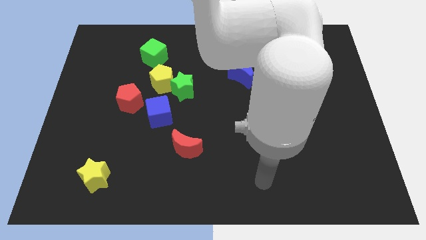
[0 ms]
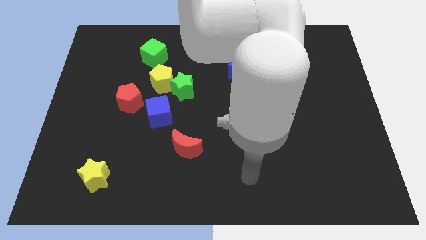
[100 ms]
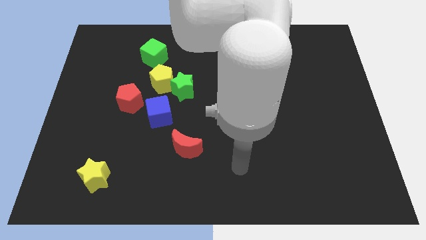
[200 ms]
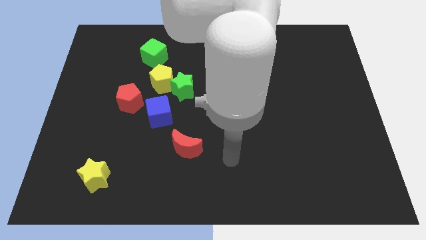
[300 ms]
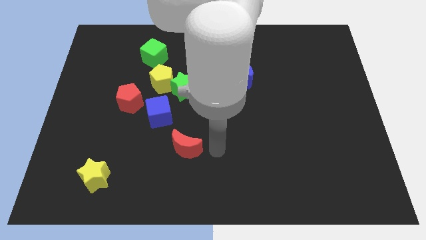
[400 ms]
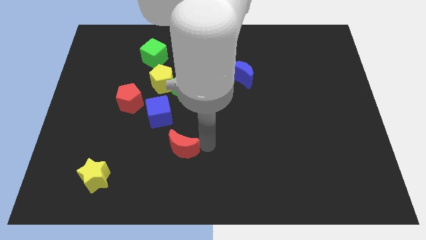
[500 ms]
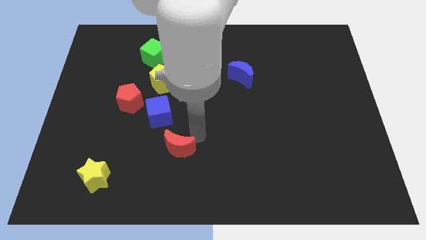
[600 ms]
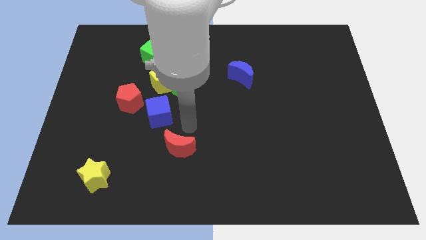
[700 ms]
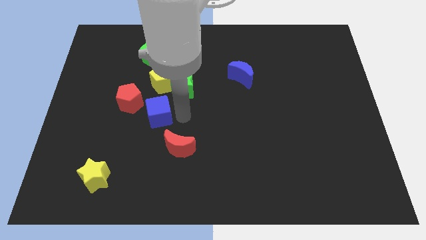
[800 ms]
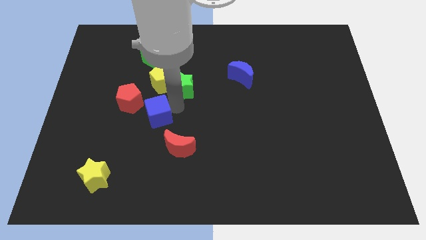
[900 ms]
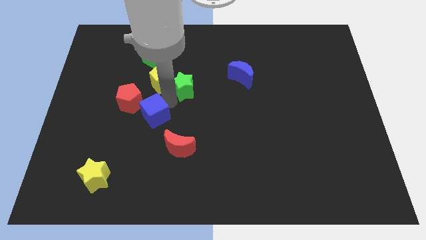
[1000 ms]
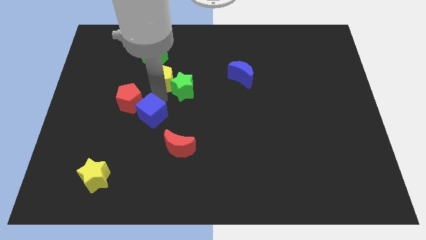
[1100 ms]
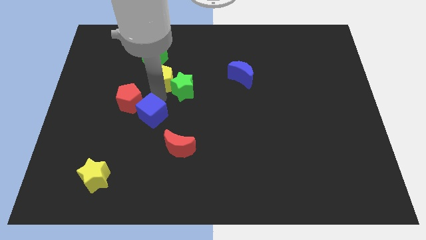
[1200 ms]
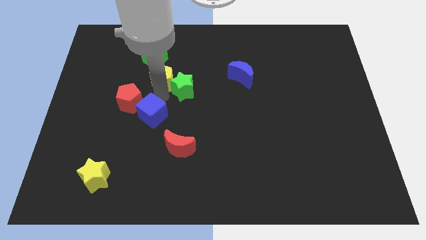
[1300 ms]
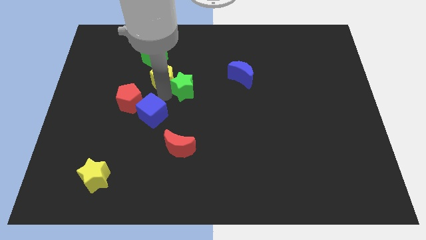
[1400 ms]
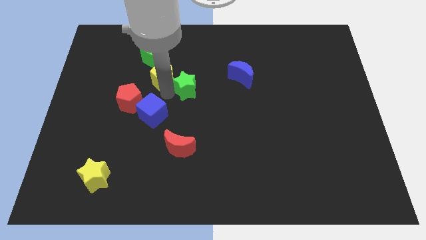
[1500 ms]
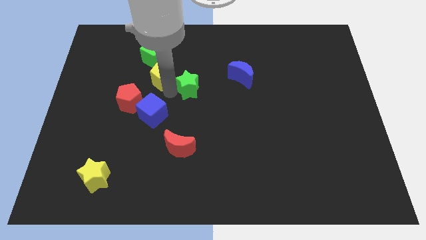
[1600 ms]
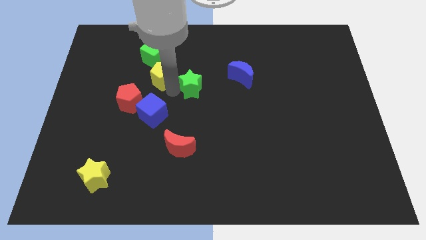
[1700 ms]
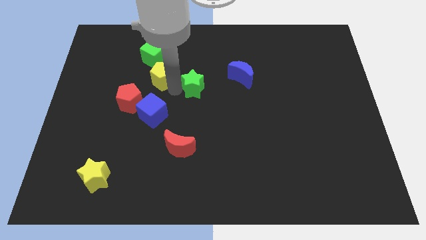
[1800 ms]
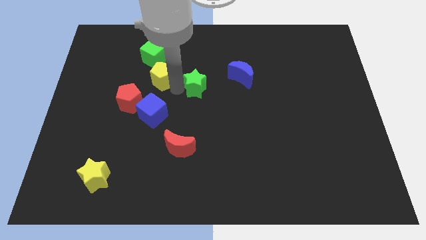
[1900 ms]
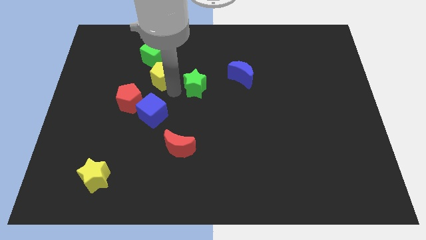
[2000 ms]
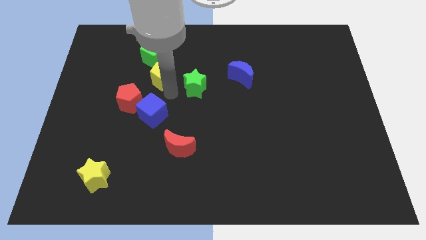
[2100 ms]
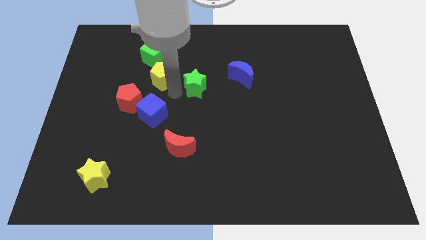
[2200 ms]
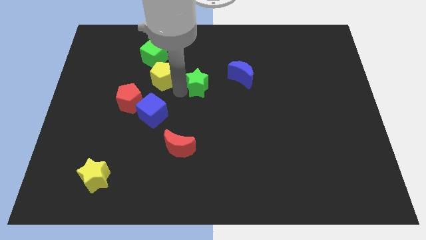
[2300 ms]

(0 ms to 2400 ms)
move the green star away from the yellow pentagon and blue cube

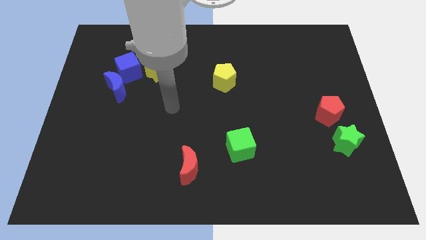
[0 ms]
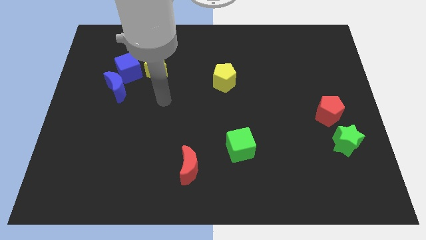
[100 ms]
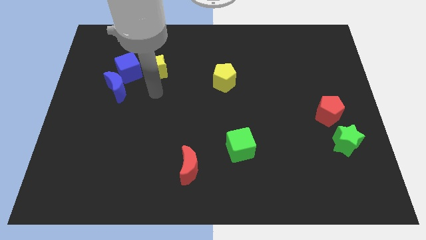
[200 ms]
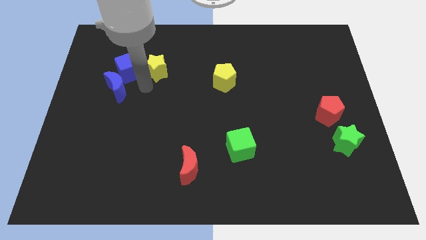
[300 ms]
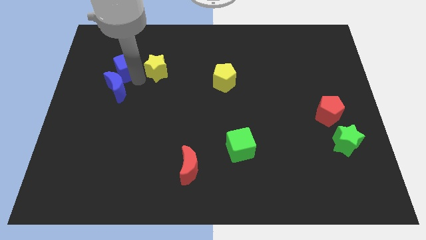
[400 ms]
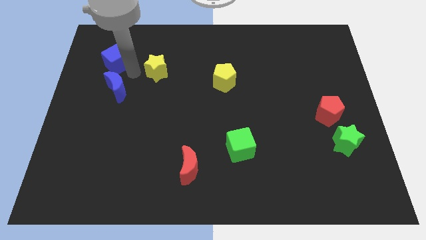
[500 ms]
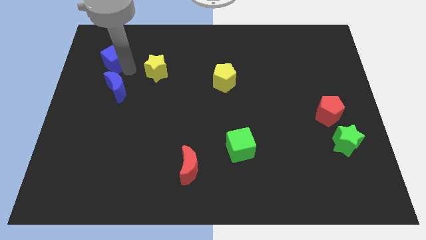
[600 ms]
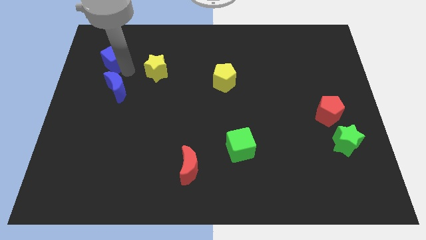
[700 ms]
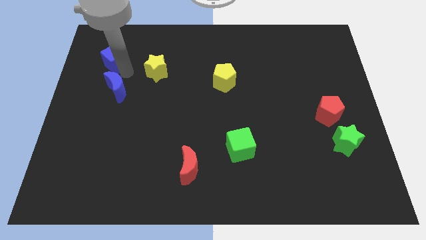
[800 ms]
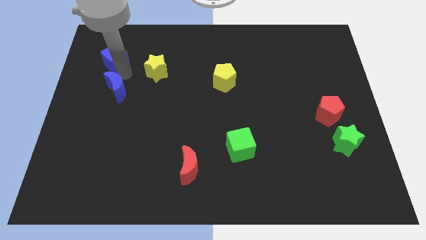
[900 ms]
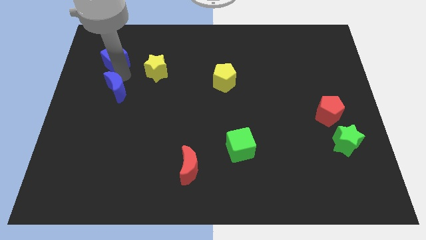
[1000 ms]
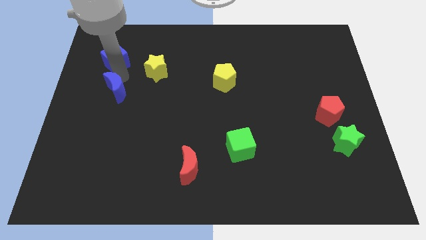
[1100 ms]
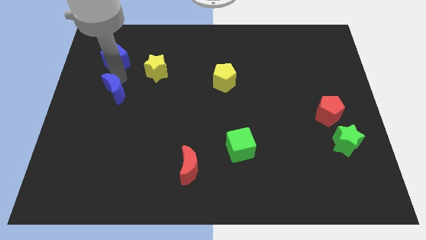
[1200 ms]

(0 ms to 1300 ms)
move the blue moon away from the blue cube

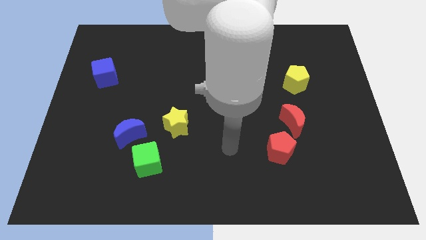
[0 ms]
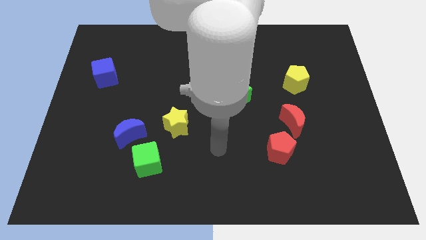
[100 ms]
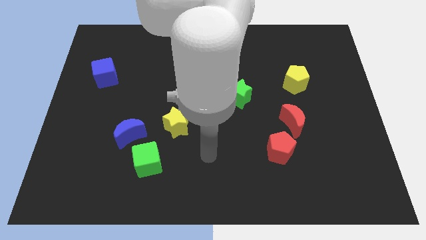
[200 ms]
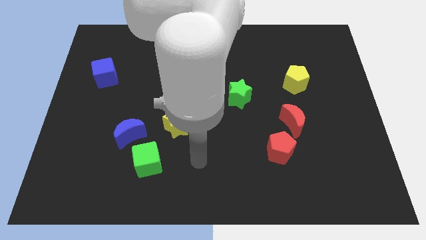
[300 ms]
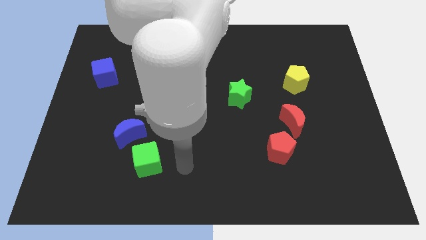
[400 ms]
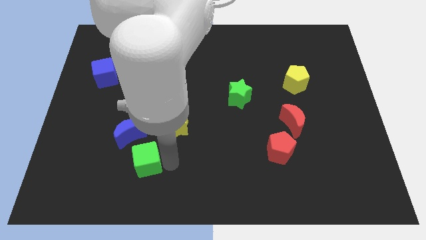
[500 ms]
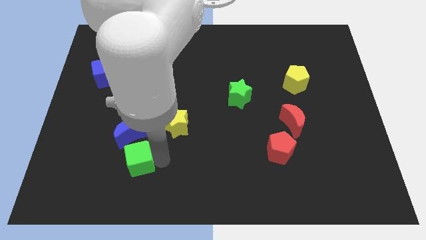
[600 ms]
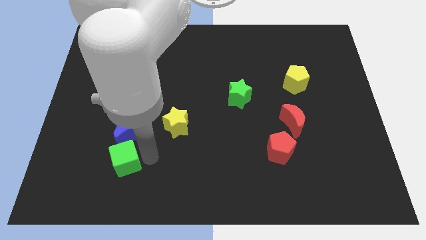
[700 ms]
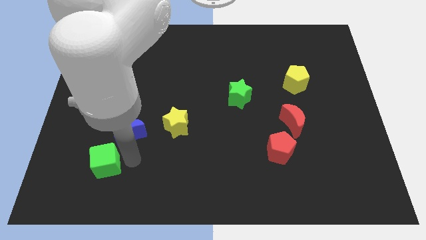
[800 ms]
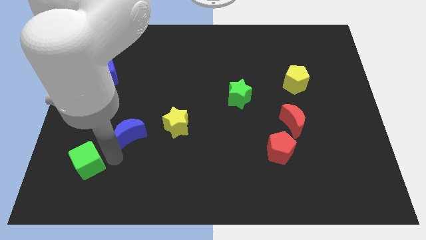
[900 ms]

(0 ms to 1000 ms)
pull the blue moon apart from the green cube

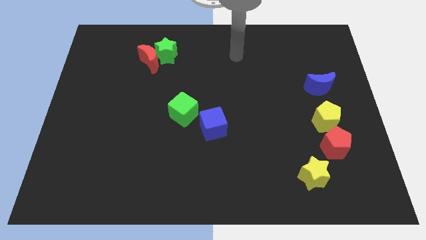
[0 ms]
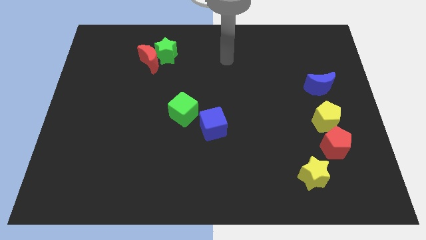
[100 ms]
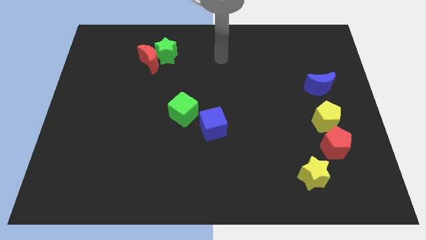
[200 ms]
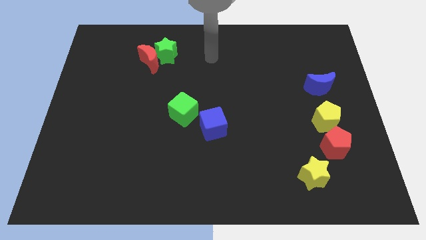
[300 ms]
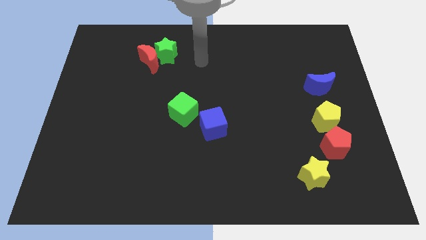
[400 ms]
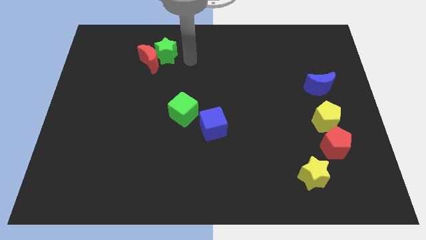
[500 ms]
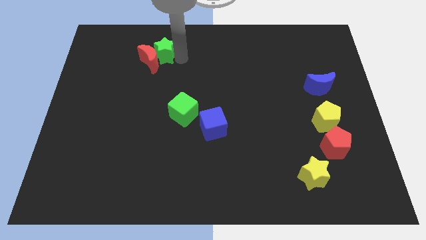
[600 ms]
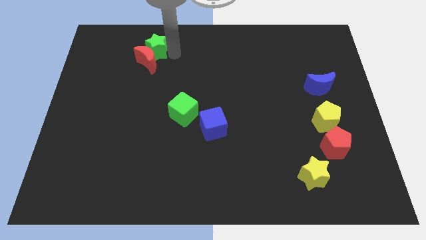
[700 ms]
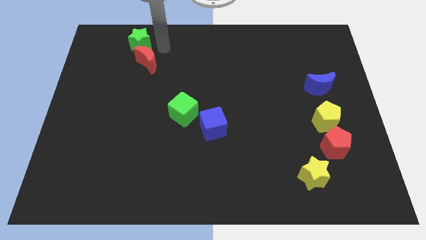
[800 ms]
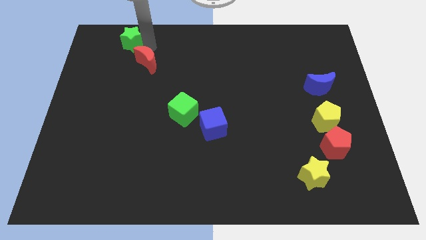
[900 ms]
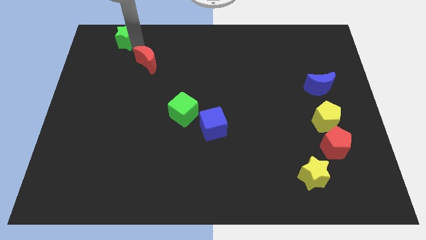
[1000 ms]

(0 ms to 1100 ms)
move the red moon away from the green star

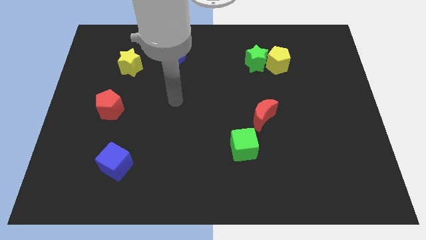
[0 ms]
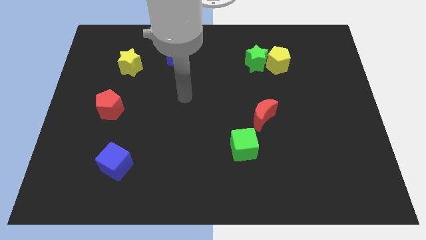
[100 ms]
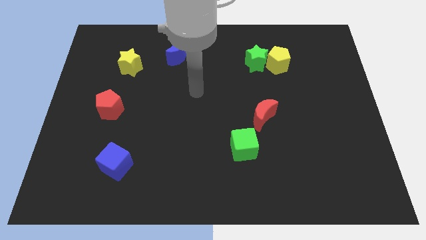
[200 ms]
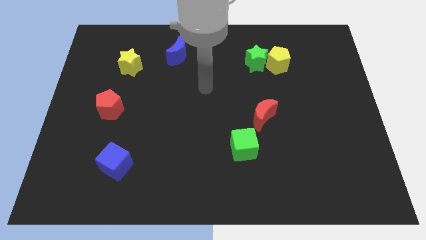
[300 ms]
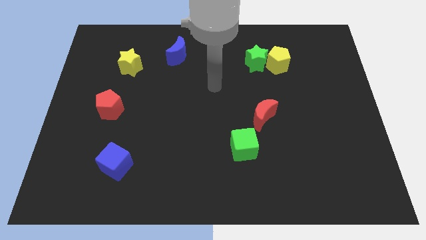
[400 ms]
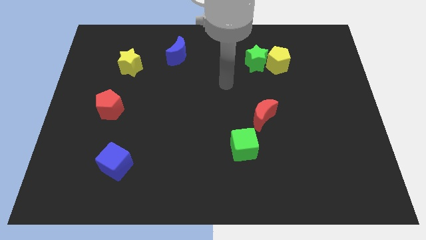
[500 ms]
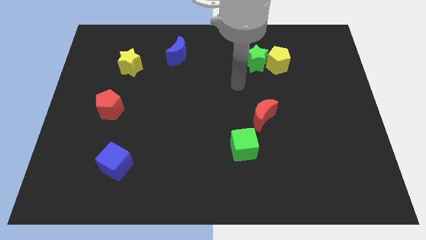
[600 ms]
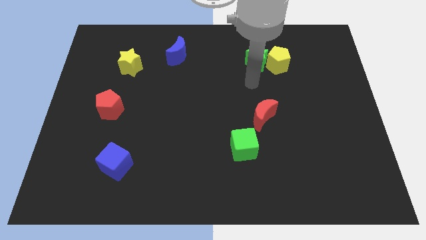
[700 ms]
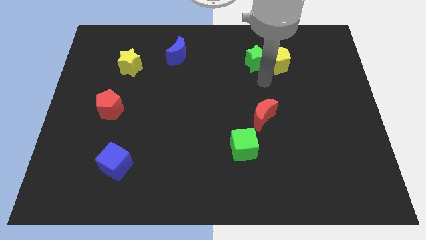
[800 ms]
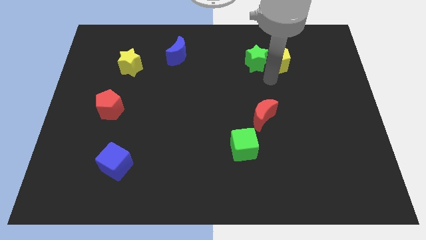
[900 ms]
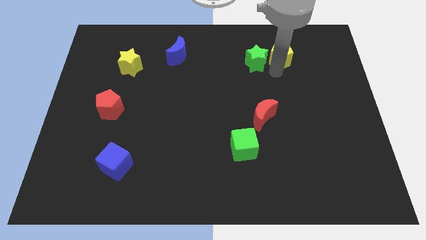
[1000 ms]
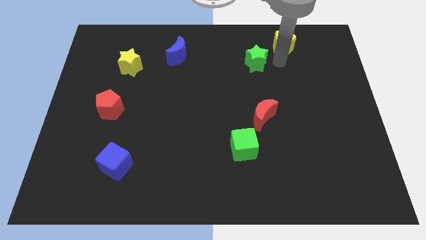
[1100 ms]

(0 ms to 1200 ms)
separate the green star from the yellow pentagon

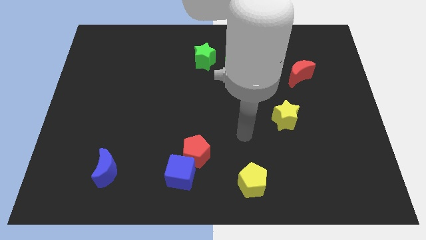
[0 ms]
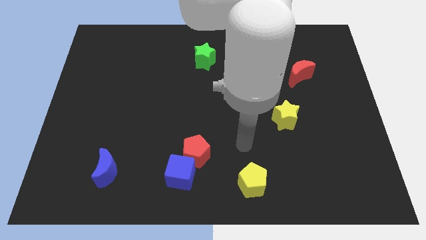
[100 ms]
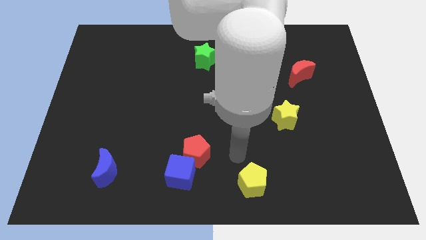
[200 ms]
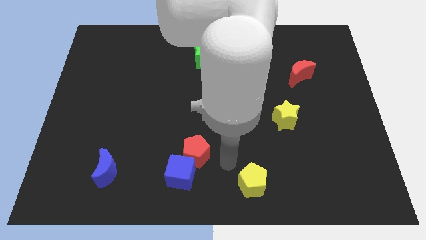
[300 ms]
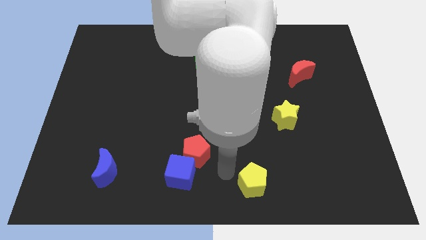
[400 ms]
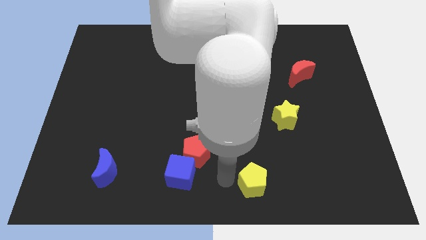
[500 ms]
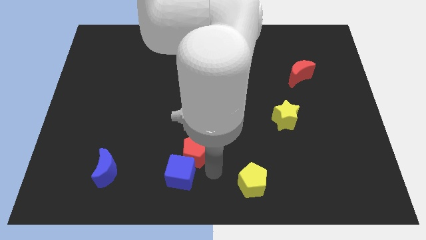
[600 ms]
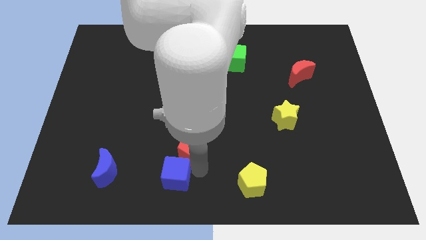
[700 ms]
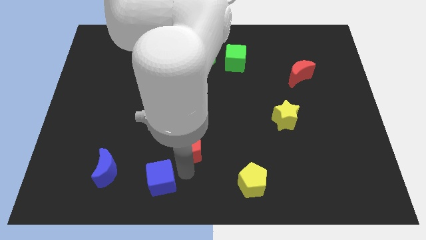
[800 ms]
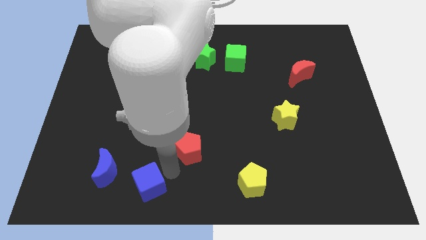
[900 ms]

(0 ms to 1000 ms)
move the red pentagon away from the blue cube

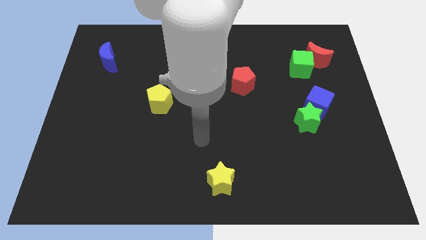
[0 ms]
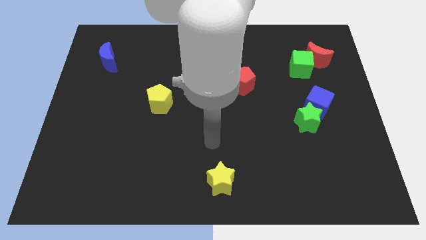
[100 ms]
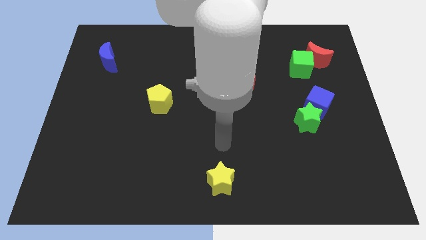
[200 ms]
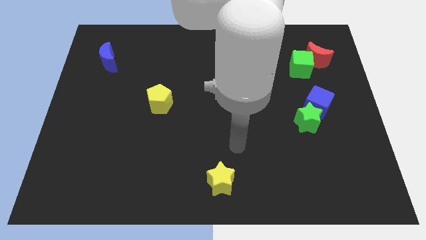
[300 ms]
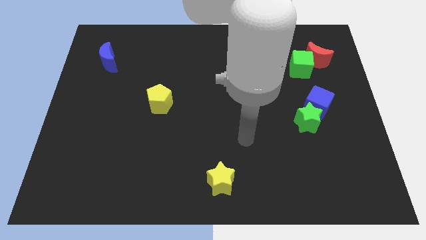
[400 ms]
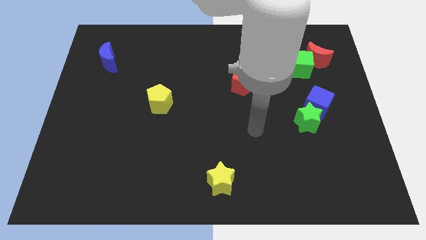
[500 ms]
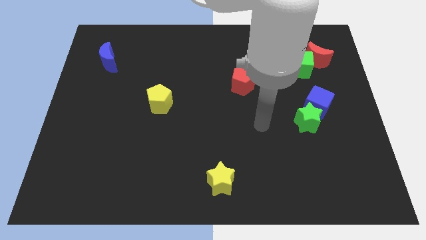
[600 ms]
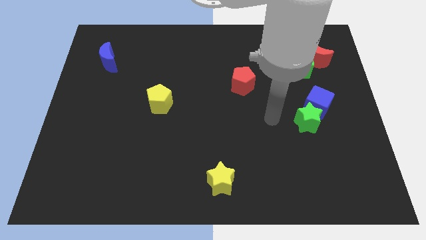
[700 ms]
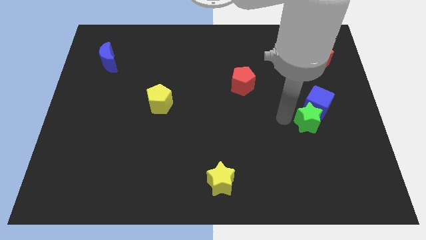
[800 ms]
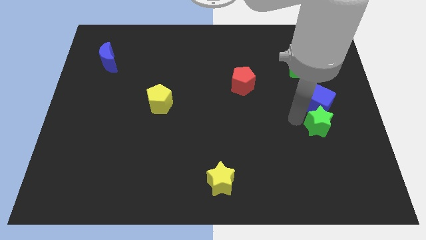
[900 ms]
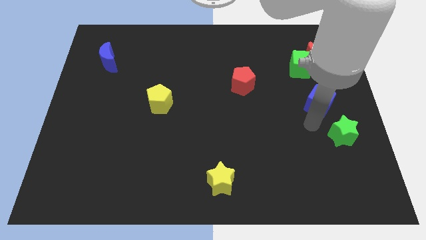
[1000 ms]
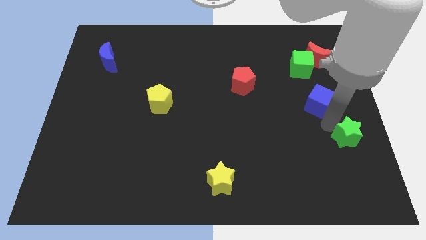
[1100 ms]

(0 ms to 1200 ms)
pull the blue cube apart from the green star

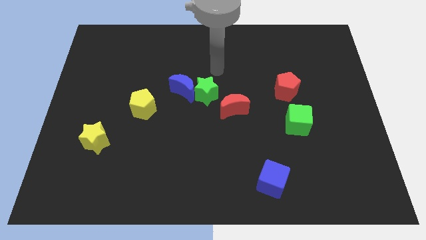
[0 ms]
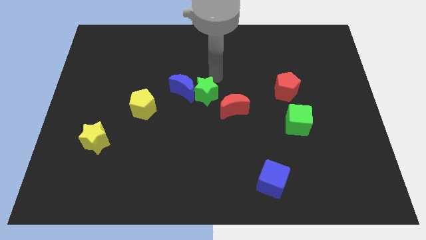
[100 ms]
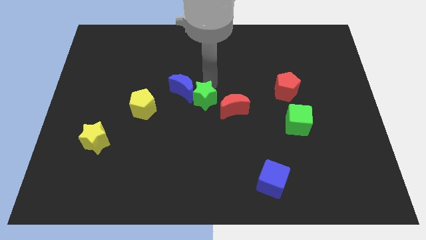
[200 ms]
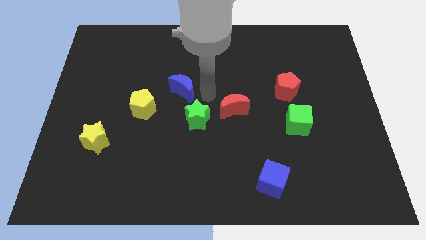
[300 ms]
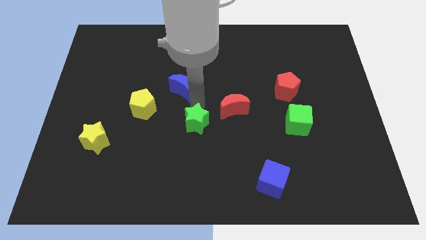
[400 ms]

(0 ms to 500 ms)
pull the blue moon apart from the green star
